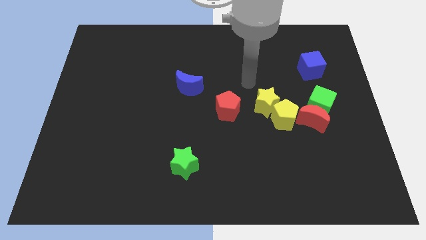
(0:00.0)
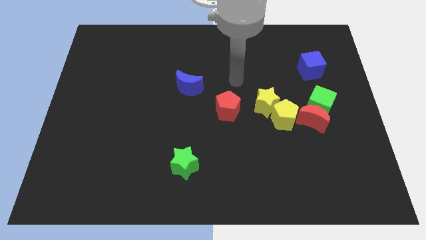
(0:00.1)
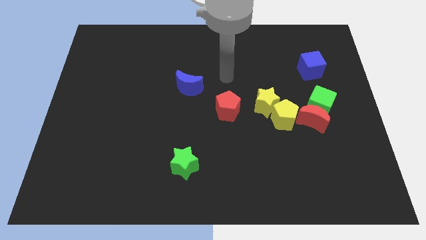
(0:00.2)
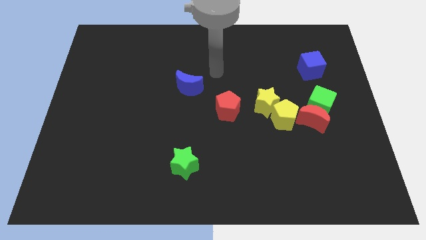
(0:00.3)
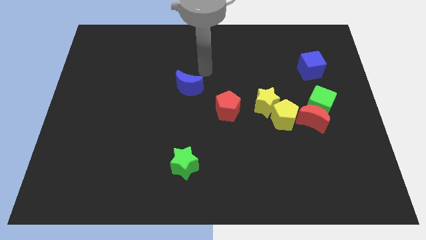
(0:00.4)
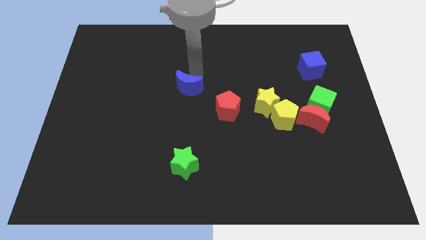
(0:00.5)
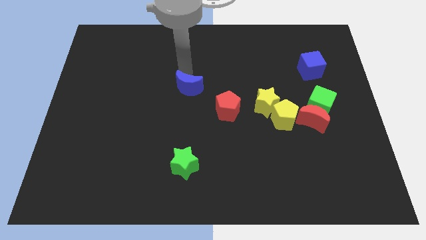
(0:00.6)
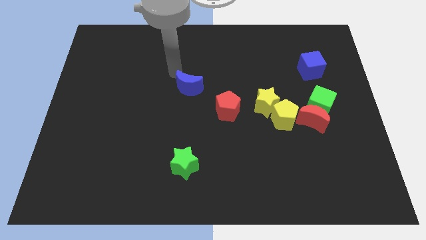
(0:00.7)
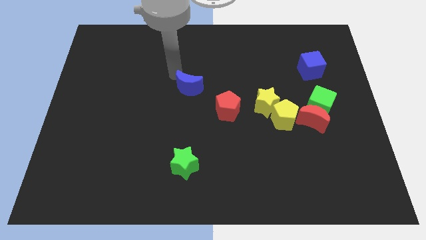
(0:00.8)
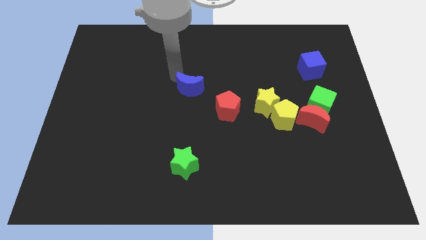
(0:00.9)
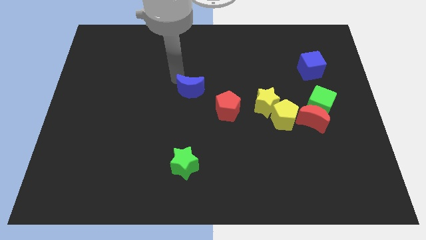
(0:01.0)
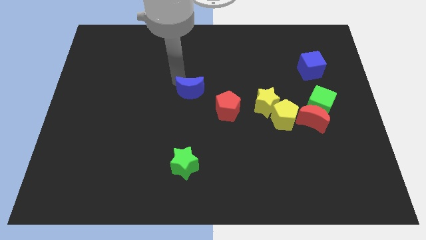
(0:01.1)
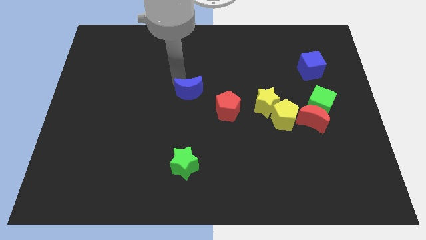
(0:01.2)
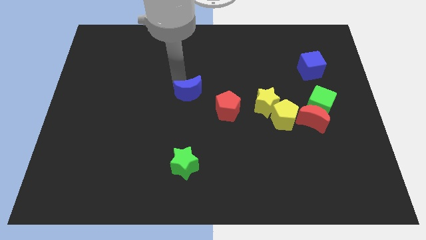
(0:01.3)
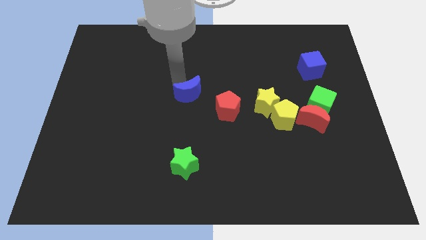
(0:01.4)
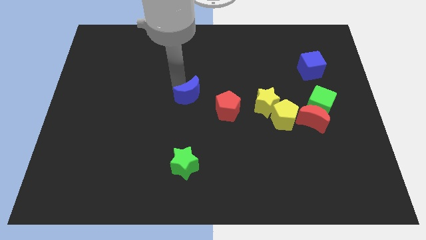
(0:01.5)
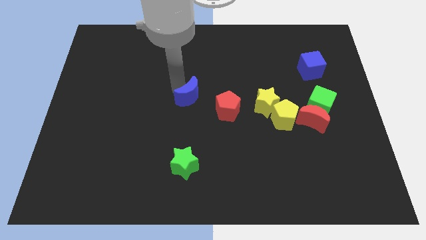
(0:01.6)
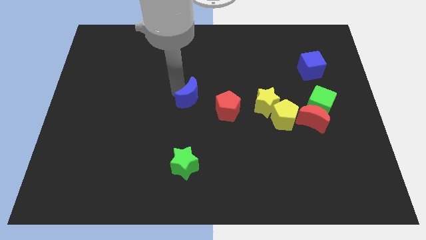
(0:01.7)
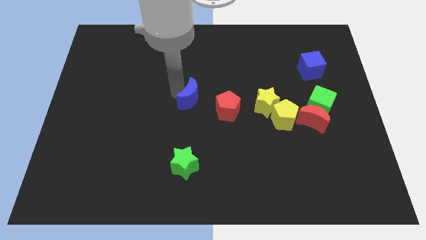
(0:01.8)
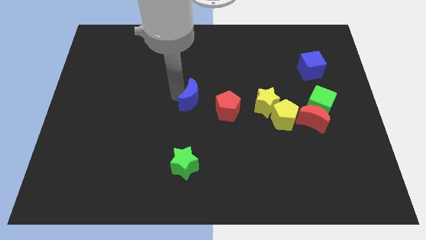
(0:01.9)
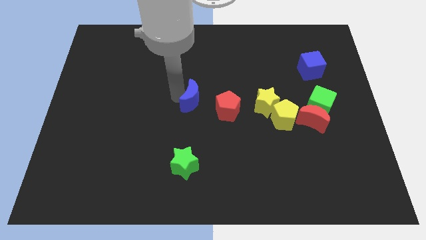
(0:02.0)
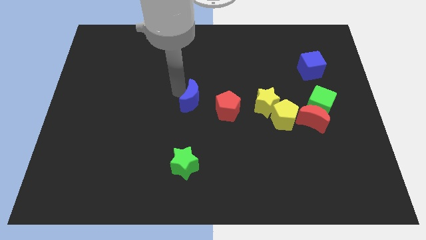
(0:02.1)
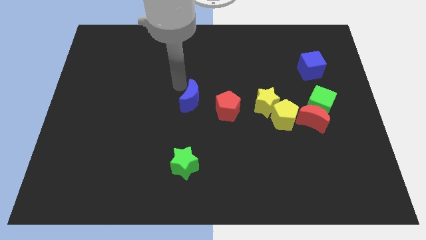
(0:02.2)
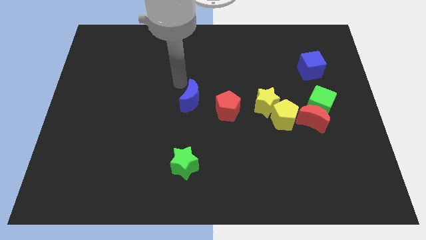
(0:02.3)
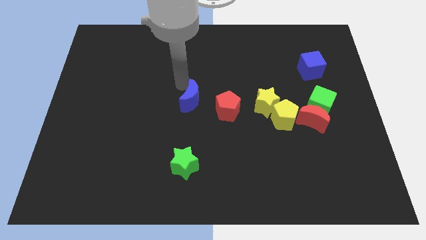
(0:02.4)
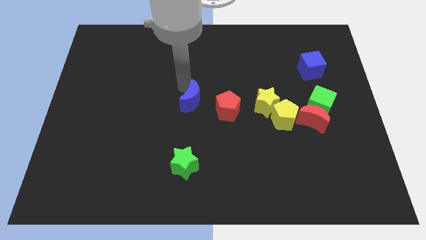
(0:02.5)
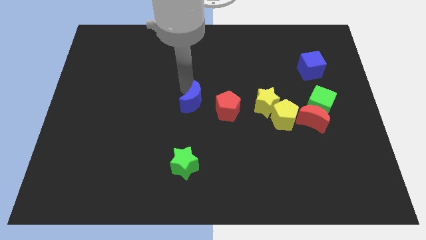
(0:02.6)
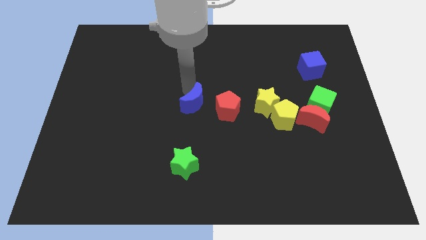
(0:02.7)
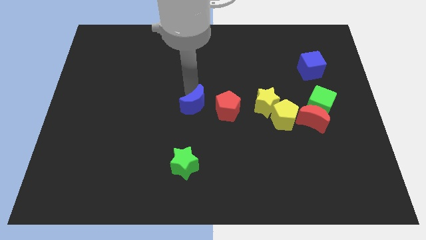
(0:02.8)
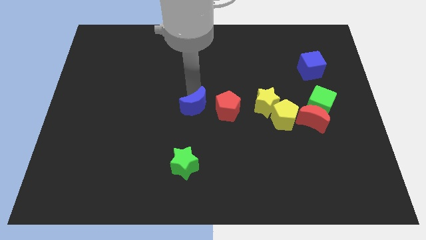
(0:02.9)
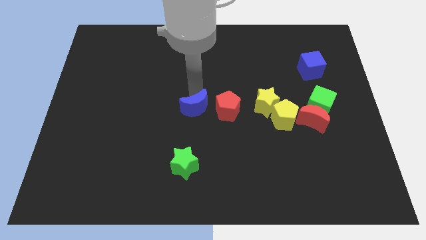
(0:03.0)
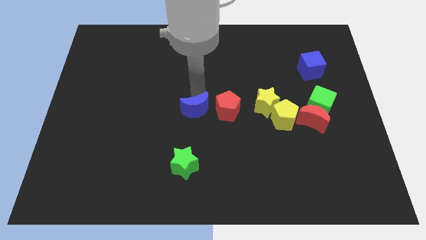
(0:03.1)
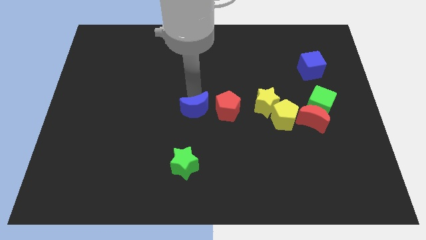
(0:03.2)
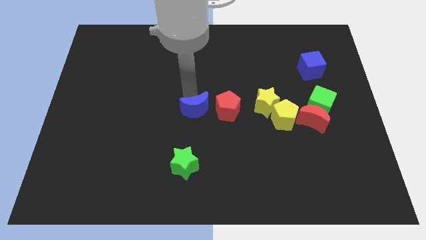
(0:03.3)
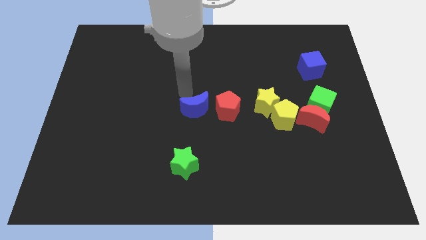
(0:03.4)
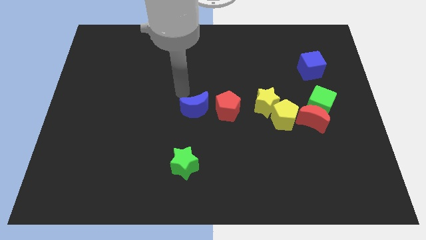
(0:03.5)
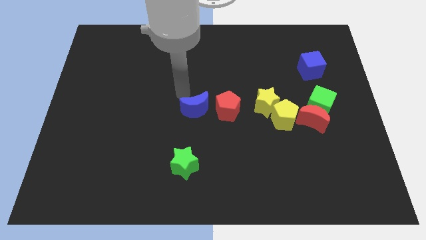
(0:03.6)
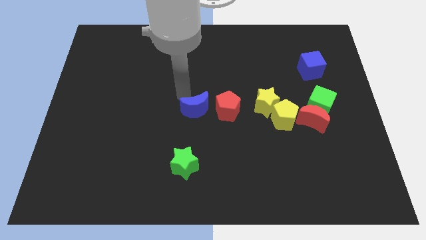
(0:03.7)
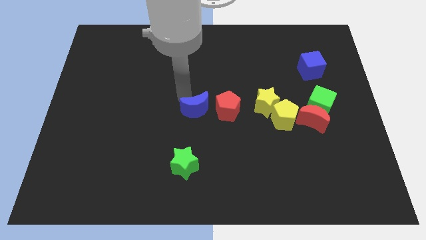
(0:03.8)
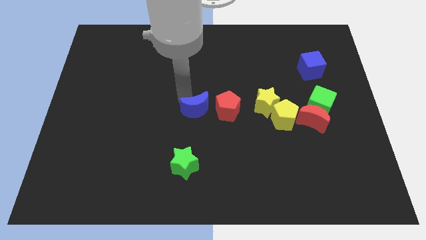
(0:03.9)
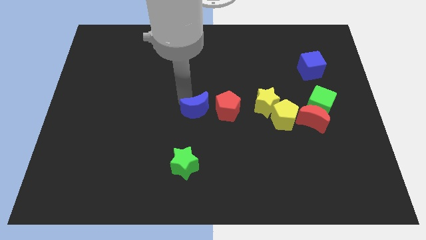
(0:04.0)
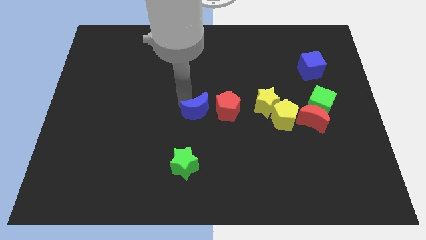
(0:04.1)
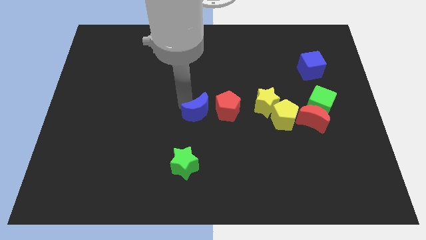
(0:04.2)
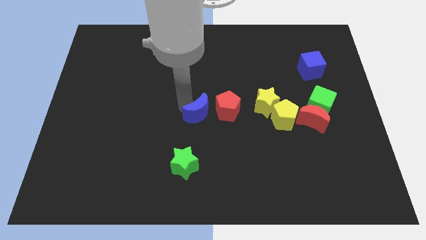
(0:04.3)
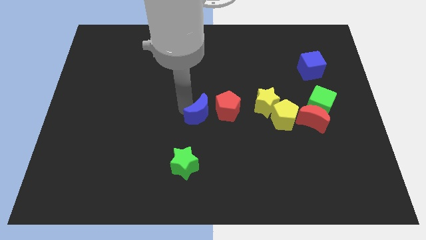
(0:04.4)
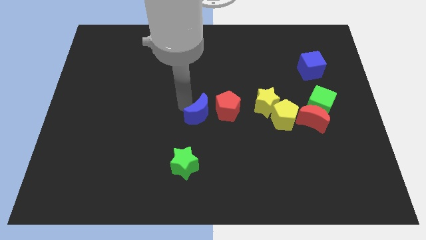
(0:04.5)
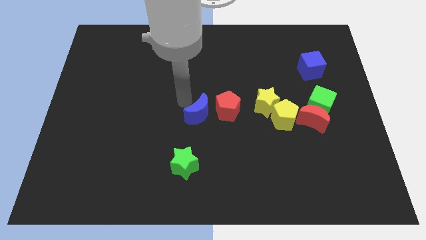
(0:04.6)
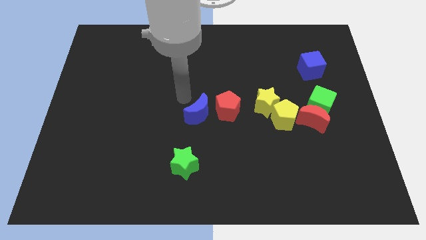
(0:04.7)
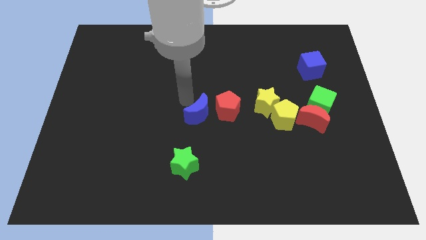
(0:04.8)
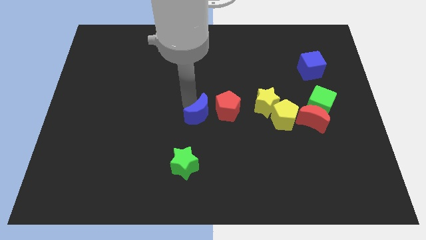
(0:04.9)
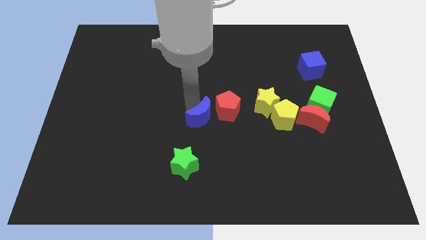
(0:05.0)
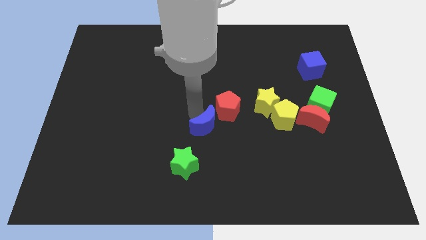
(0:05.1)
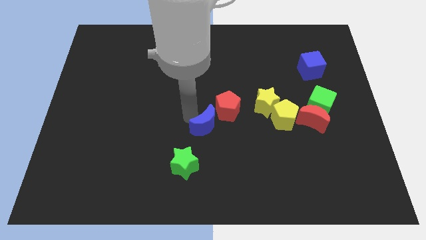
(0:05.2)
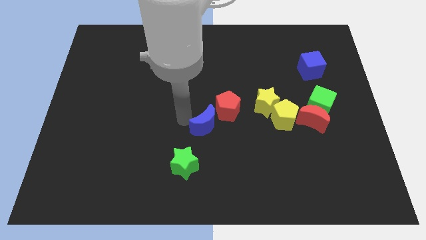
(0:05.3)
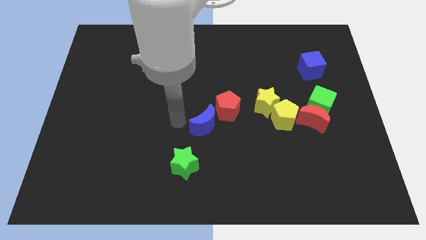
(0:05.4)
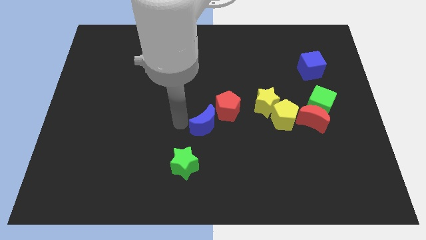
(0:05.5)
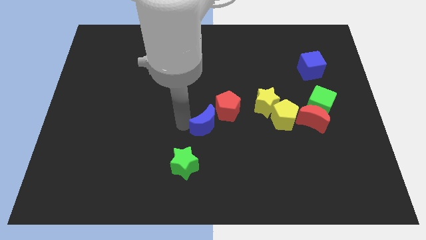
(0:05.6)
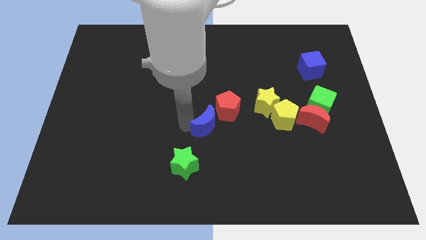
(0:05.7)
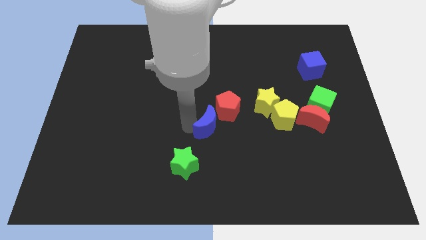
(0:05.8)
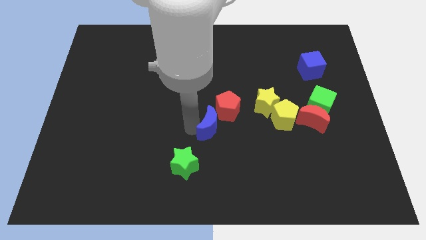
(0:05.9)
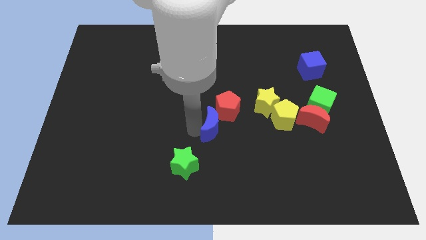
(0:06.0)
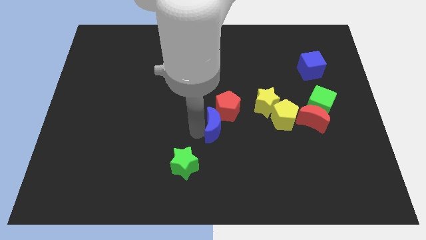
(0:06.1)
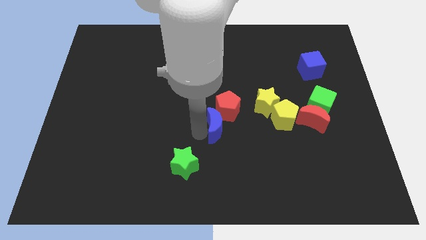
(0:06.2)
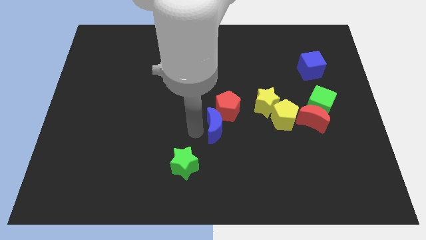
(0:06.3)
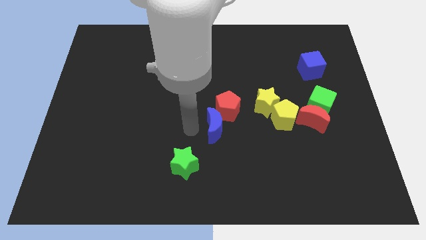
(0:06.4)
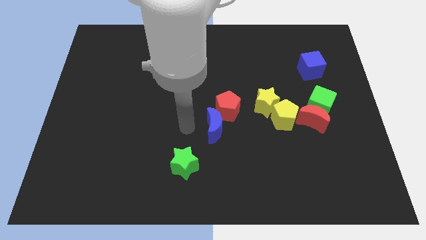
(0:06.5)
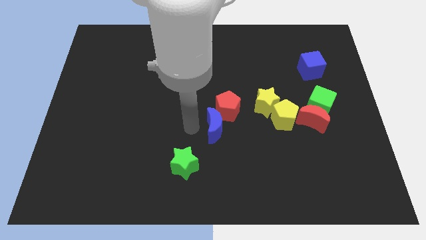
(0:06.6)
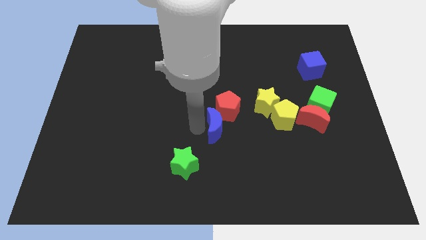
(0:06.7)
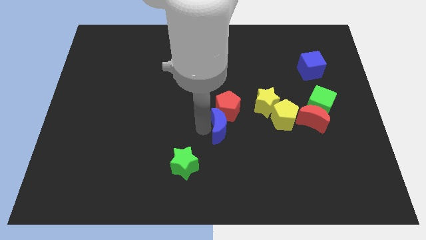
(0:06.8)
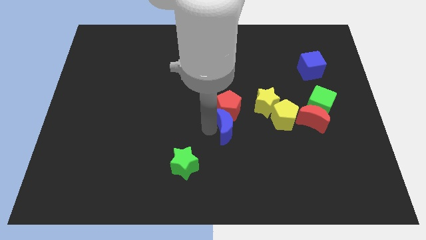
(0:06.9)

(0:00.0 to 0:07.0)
slide the blue moon diagonally down and to the right of the red pentagon

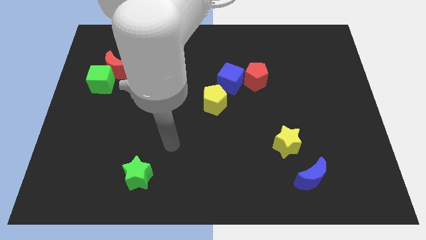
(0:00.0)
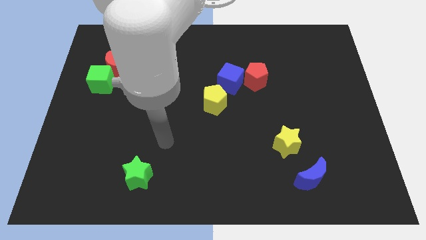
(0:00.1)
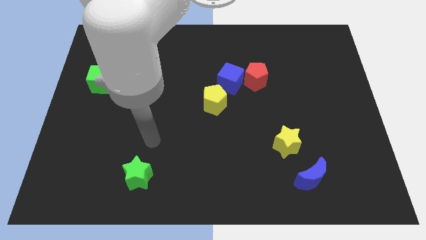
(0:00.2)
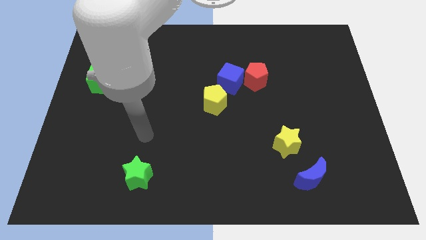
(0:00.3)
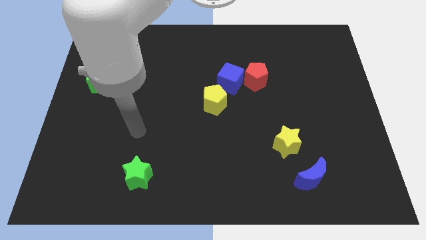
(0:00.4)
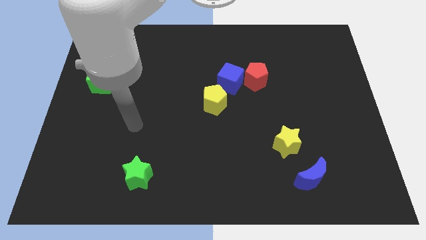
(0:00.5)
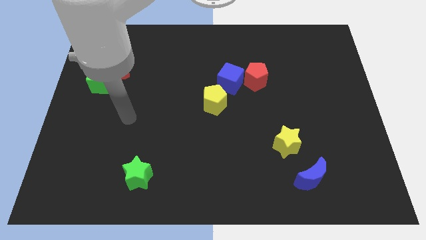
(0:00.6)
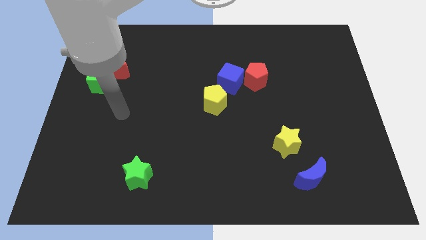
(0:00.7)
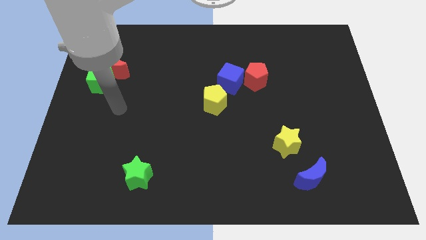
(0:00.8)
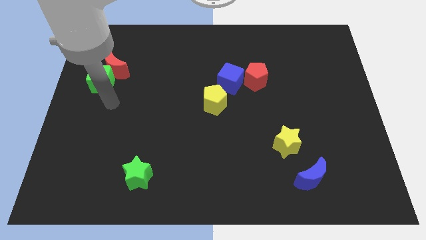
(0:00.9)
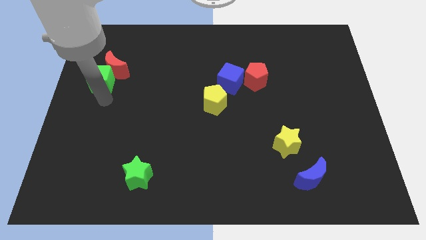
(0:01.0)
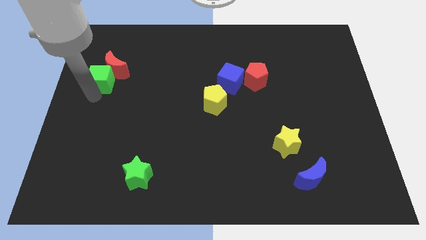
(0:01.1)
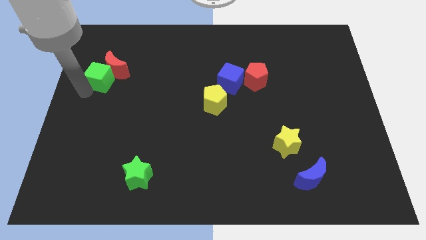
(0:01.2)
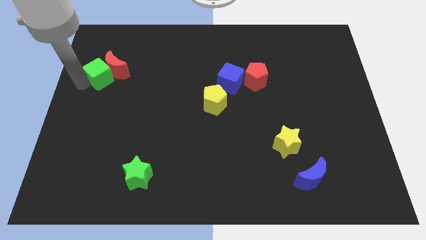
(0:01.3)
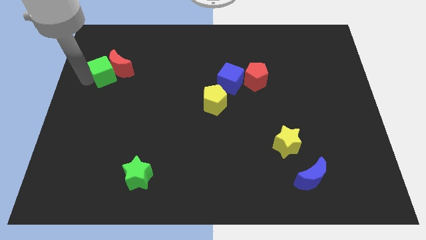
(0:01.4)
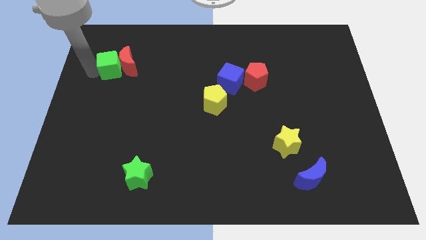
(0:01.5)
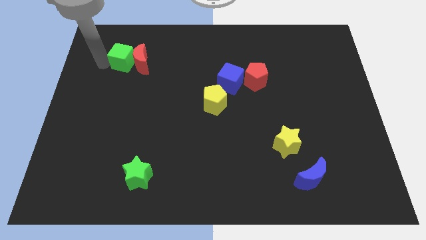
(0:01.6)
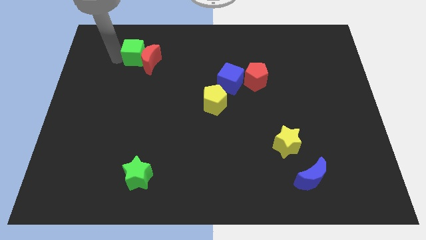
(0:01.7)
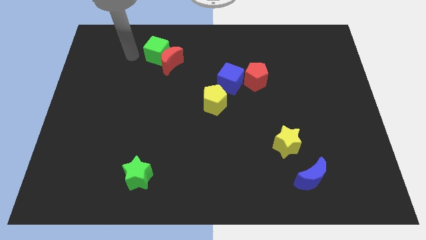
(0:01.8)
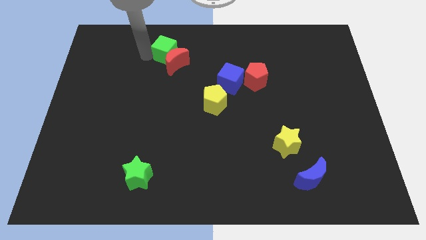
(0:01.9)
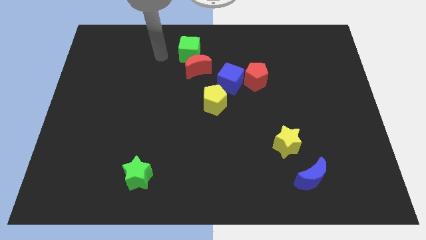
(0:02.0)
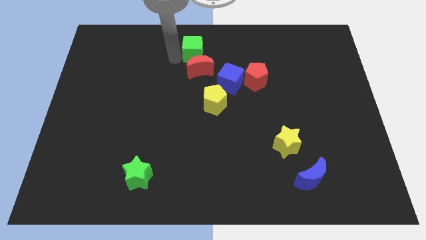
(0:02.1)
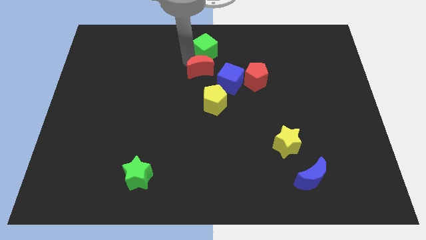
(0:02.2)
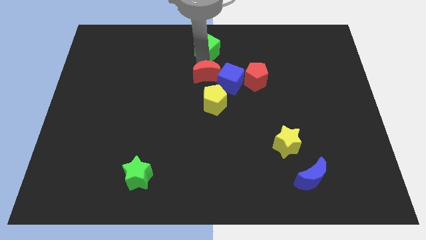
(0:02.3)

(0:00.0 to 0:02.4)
put the red moon to the top left of the yellow pentagon
